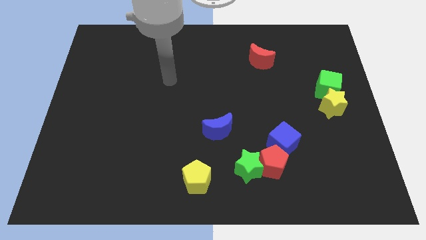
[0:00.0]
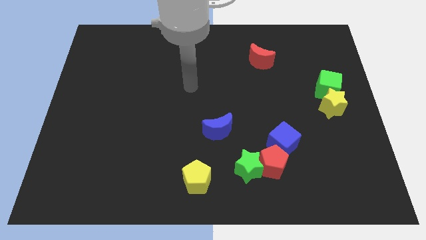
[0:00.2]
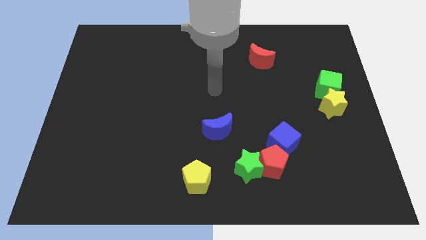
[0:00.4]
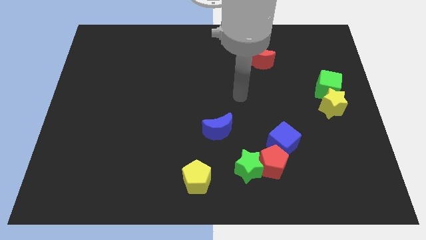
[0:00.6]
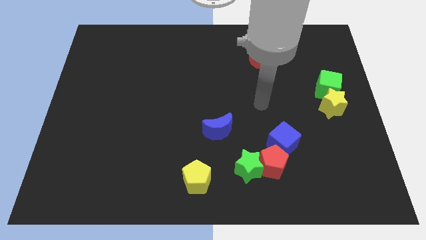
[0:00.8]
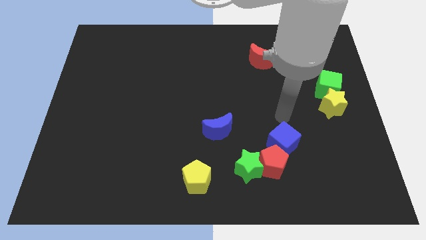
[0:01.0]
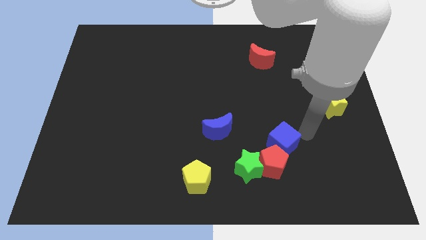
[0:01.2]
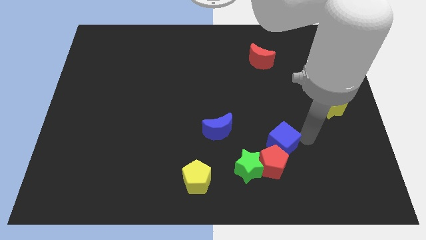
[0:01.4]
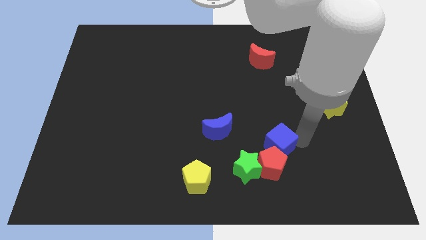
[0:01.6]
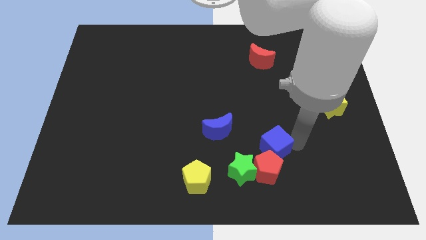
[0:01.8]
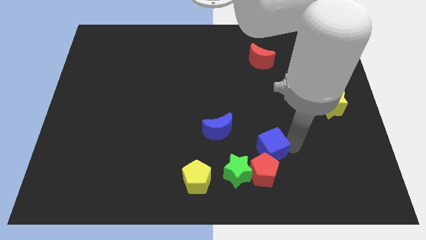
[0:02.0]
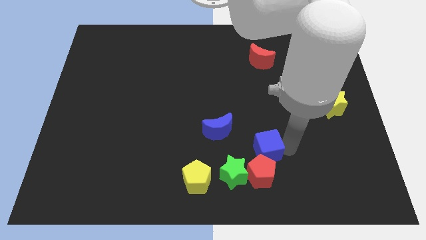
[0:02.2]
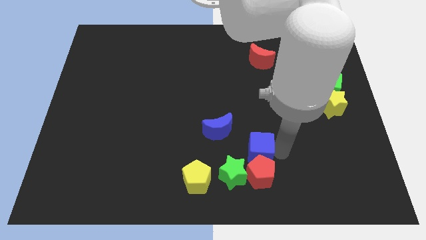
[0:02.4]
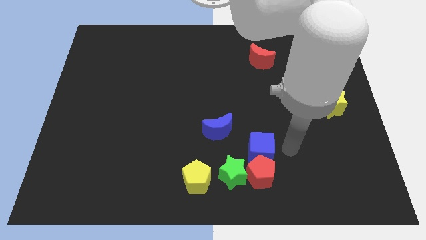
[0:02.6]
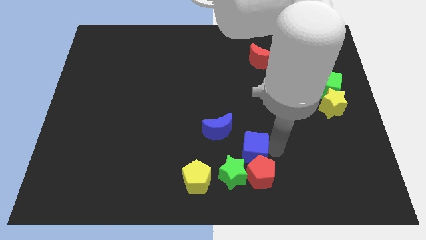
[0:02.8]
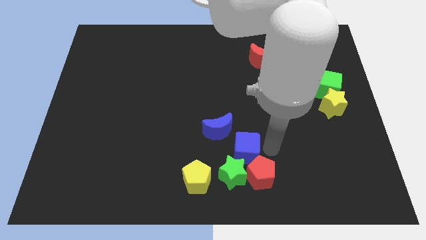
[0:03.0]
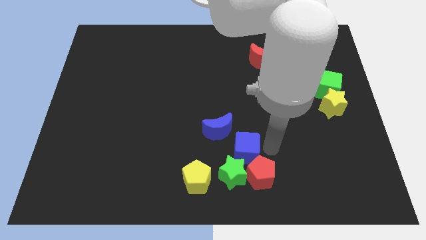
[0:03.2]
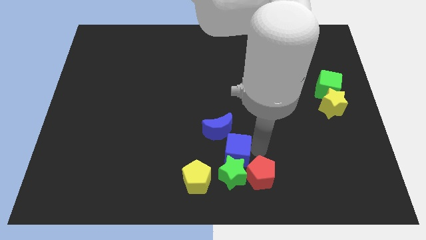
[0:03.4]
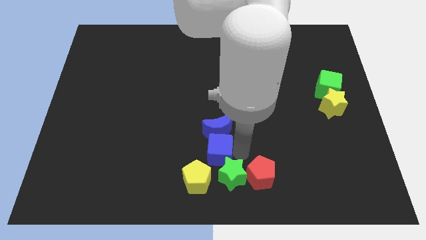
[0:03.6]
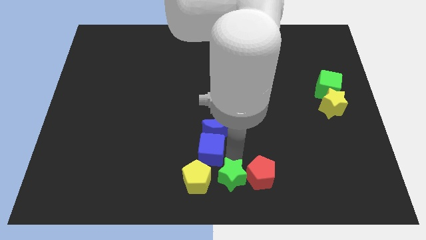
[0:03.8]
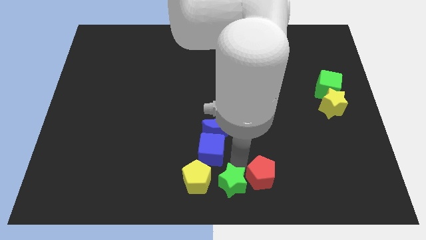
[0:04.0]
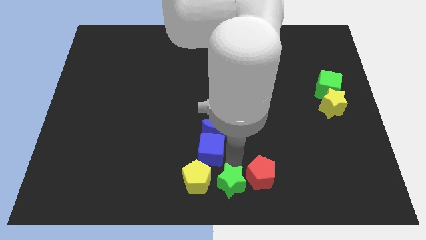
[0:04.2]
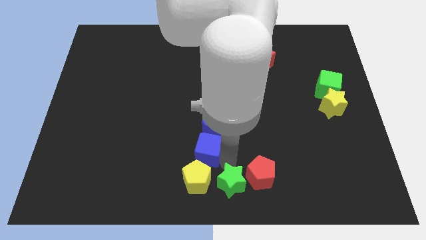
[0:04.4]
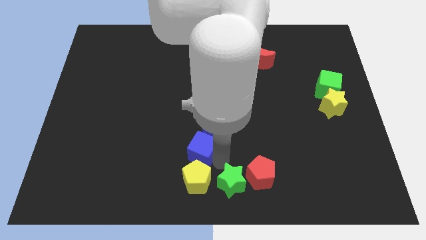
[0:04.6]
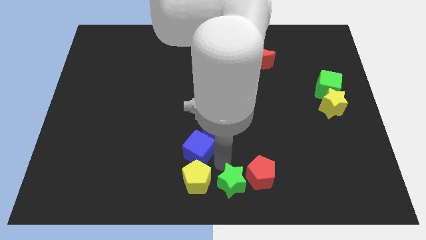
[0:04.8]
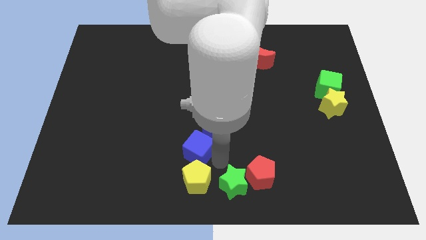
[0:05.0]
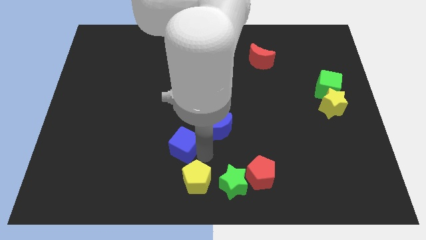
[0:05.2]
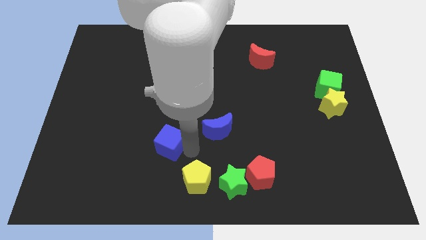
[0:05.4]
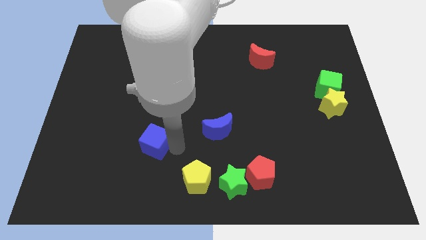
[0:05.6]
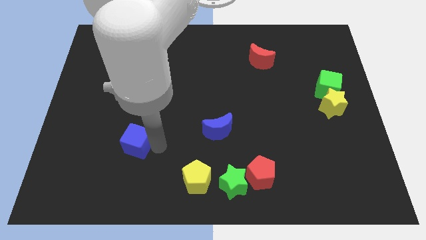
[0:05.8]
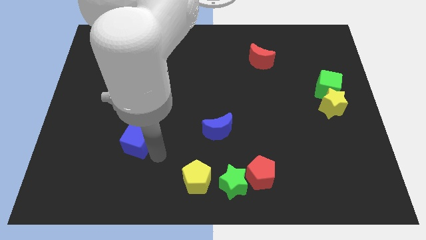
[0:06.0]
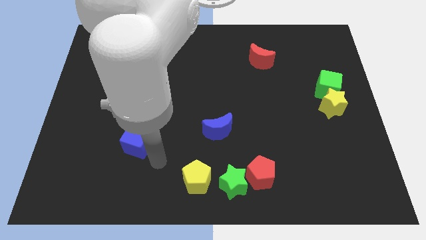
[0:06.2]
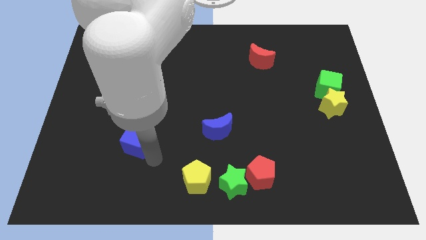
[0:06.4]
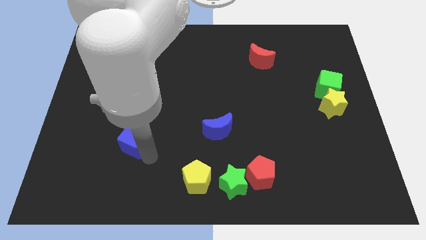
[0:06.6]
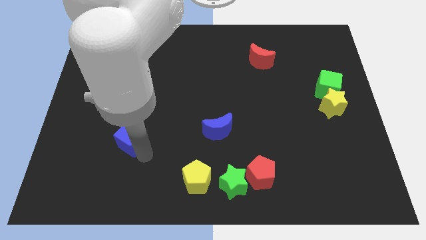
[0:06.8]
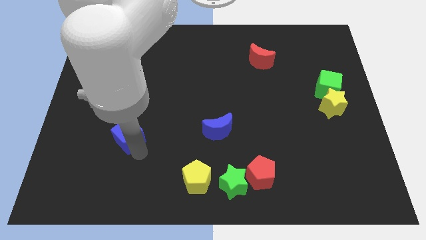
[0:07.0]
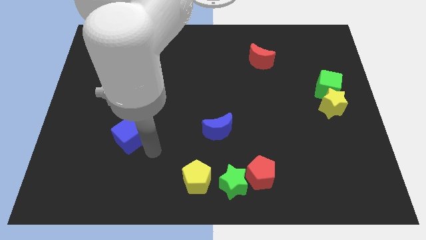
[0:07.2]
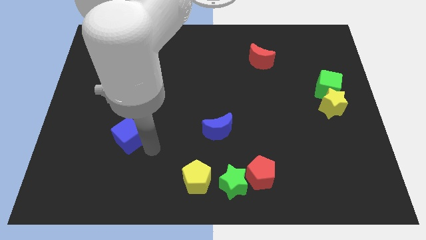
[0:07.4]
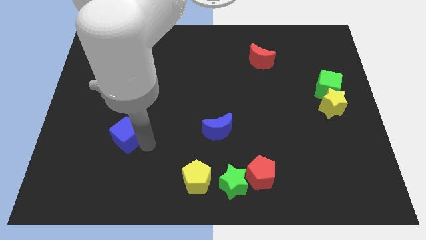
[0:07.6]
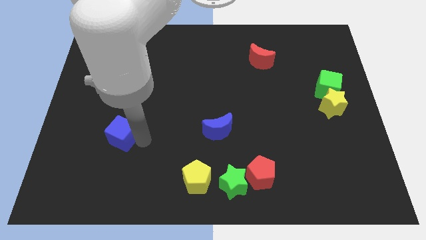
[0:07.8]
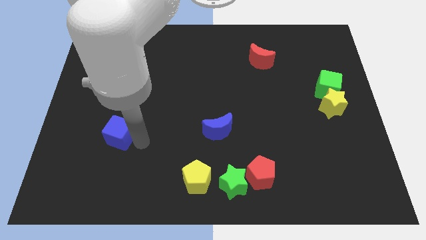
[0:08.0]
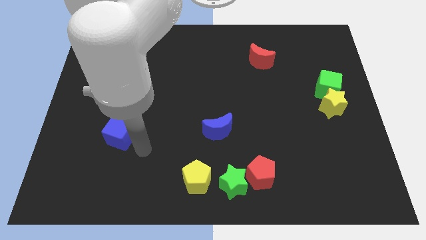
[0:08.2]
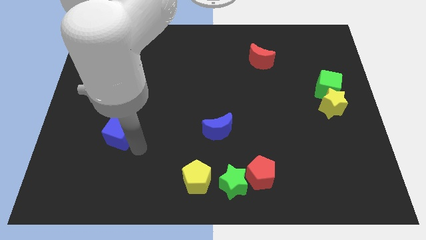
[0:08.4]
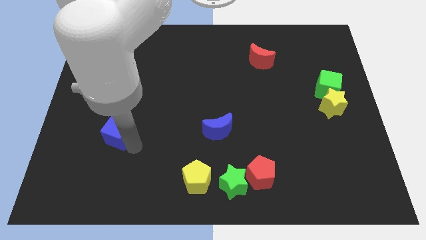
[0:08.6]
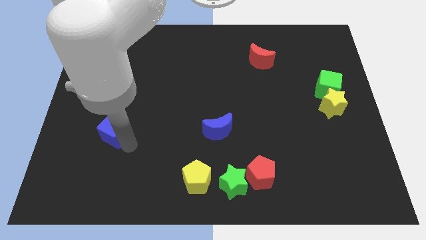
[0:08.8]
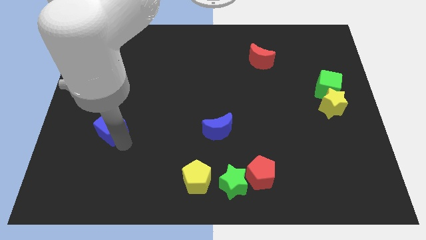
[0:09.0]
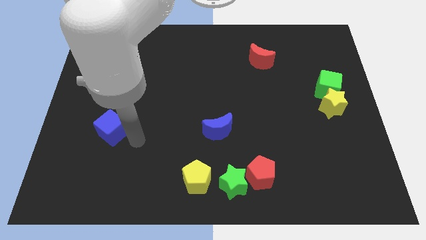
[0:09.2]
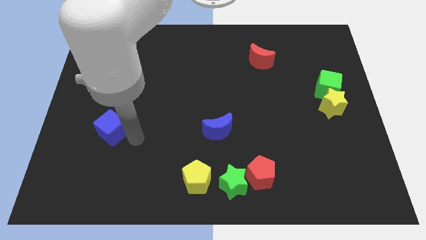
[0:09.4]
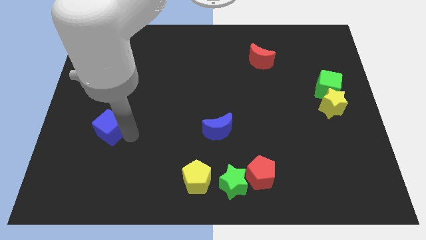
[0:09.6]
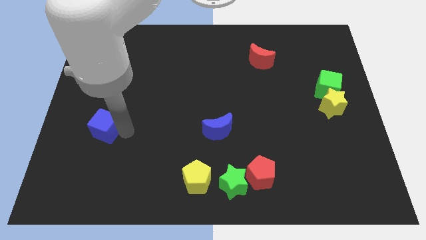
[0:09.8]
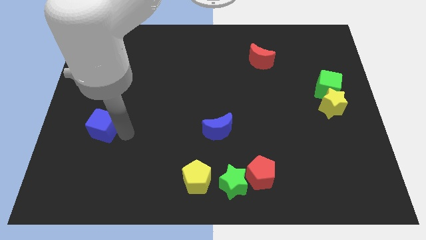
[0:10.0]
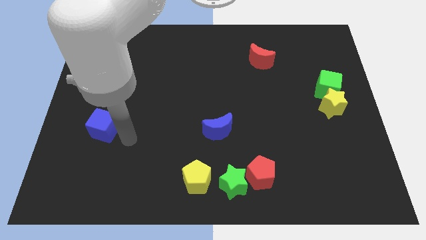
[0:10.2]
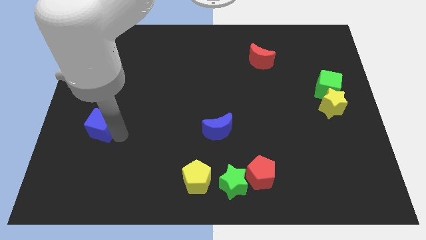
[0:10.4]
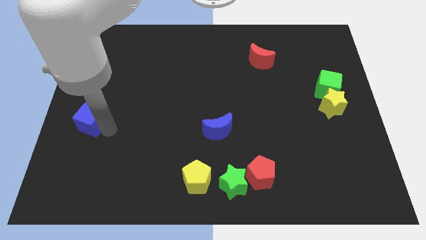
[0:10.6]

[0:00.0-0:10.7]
slide the blue cube to the center left

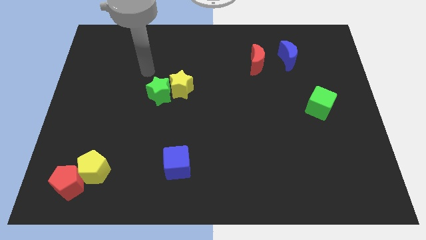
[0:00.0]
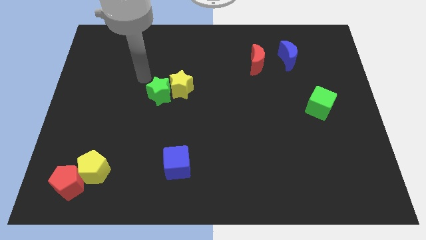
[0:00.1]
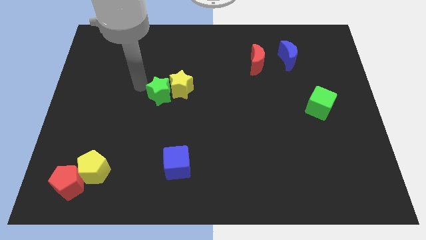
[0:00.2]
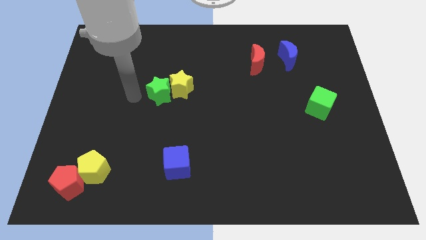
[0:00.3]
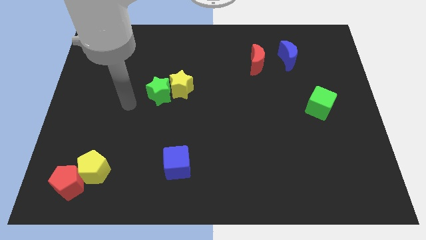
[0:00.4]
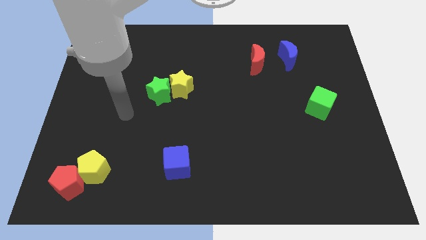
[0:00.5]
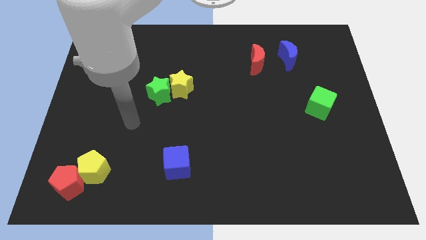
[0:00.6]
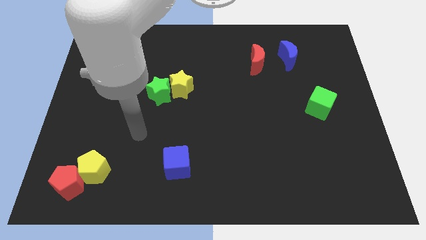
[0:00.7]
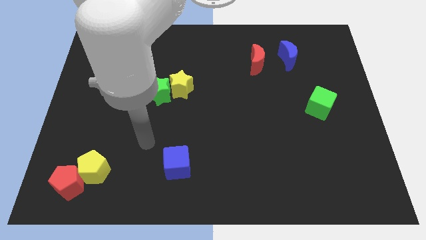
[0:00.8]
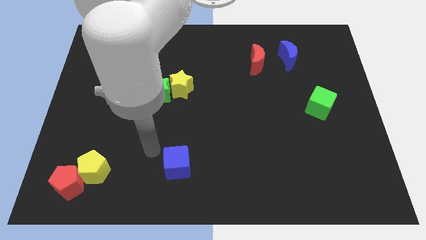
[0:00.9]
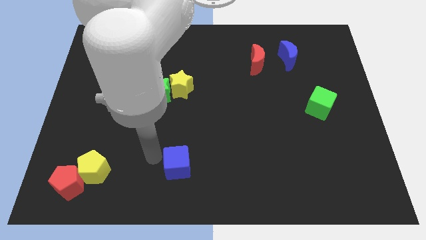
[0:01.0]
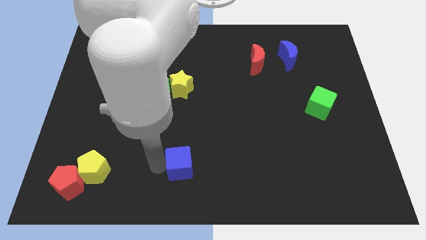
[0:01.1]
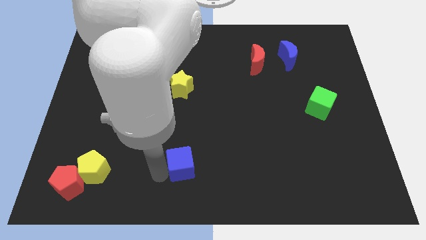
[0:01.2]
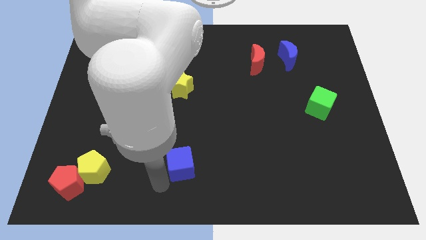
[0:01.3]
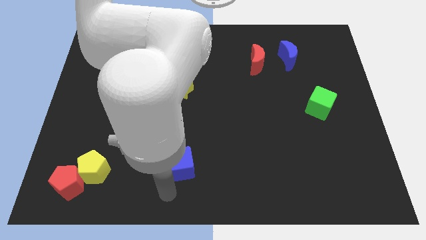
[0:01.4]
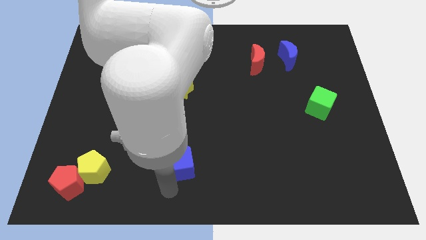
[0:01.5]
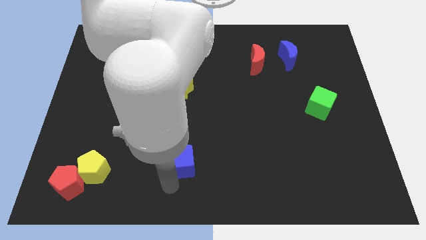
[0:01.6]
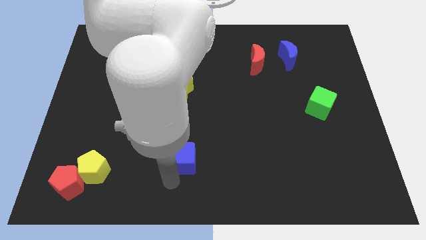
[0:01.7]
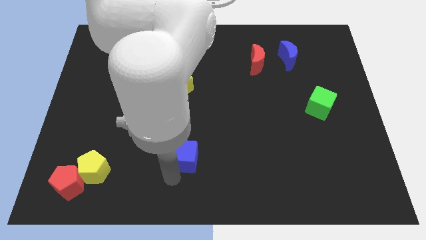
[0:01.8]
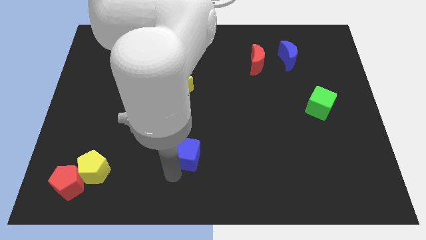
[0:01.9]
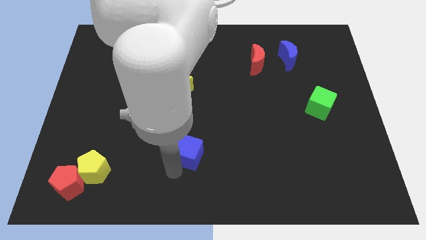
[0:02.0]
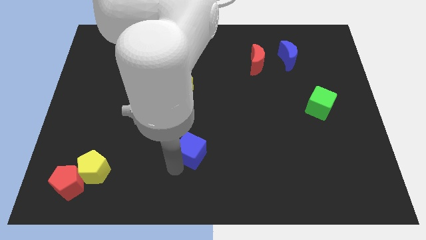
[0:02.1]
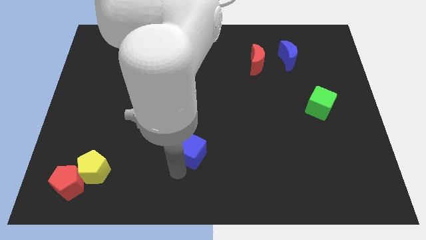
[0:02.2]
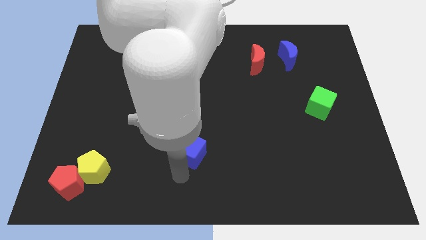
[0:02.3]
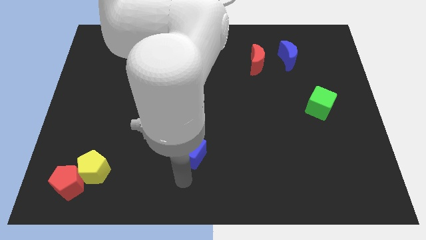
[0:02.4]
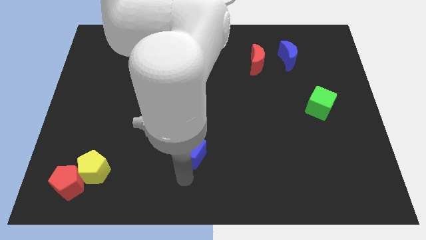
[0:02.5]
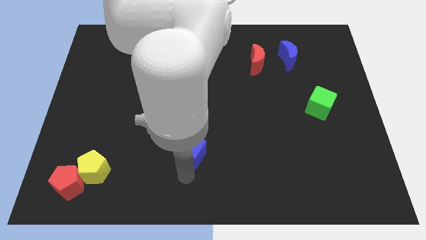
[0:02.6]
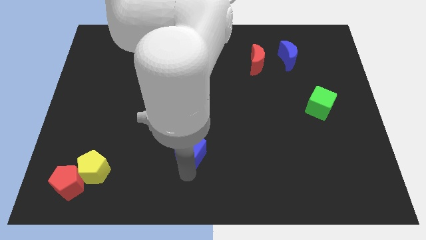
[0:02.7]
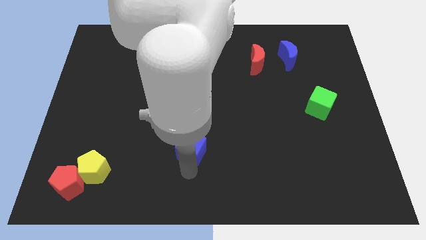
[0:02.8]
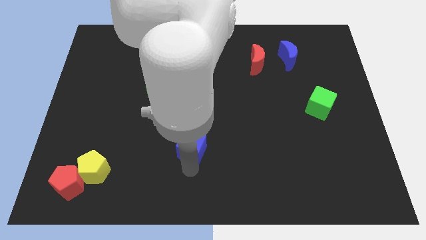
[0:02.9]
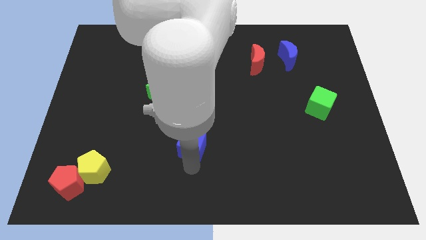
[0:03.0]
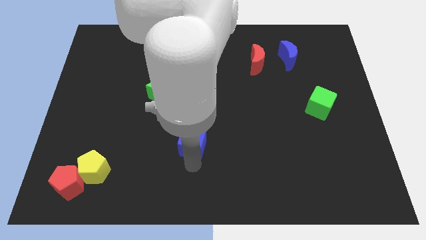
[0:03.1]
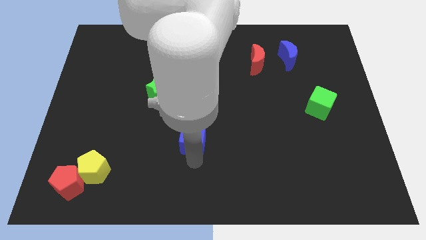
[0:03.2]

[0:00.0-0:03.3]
put the blue cube to the center
